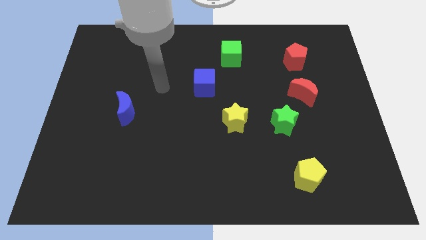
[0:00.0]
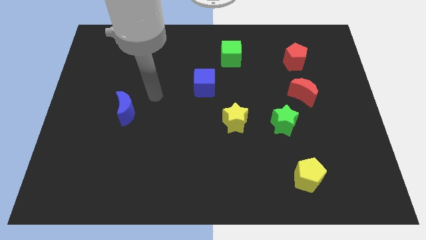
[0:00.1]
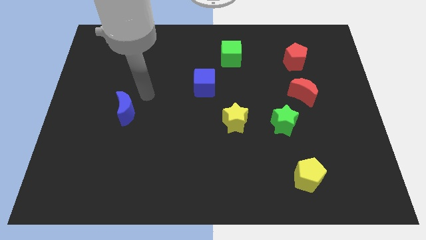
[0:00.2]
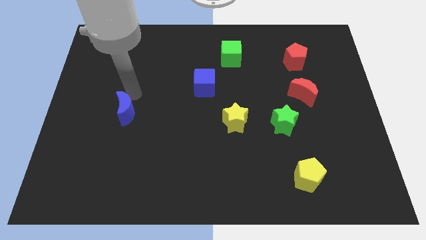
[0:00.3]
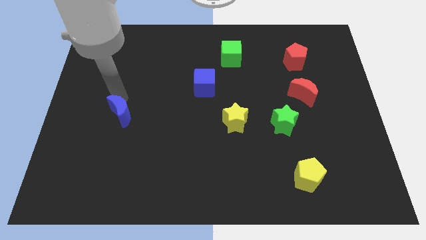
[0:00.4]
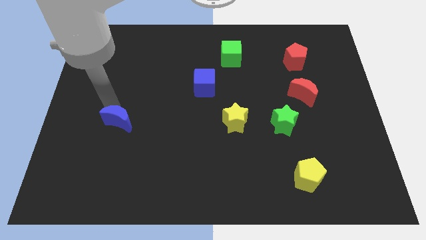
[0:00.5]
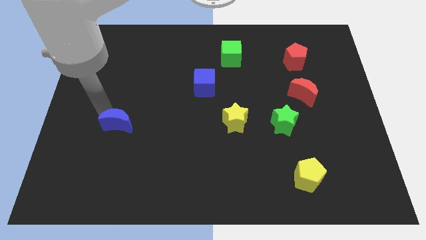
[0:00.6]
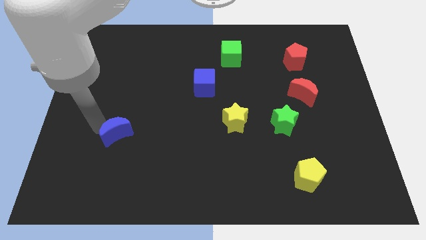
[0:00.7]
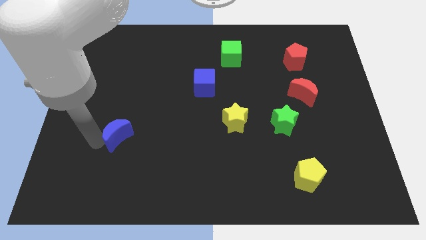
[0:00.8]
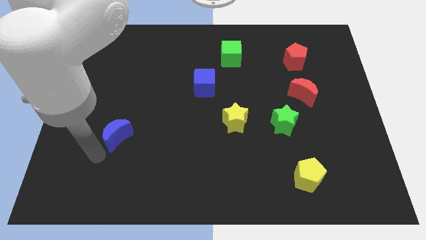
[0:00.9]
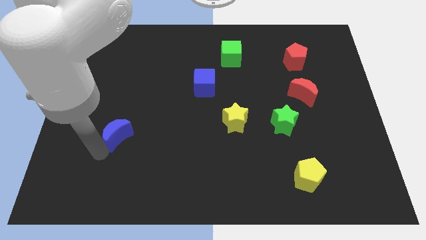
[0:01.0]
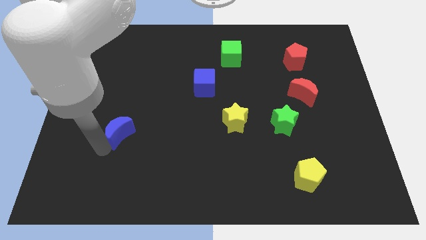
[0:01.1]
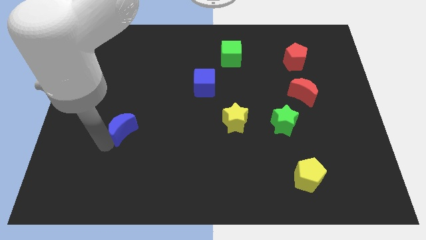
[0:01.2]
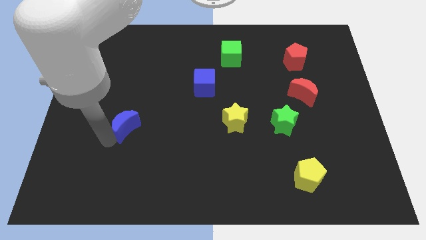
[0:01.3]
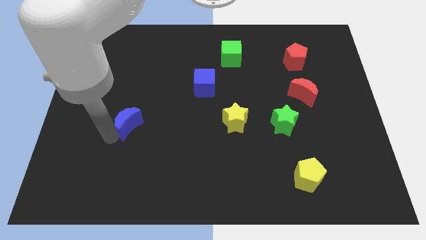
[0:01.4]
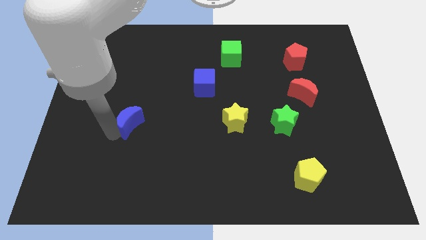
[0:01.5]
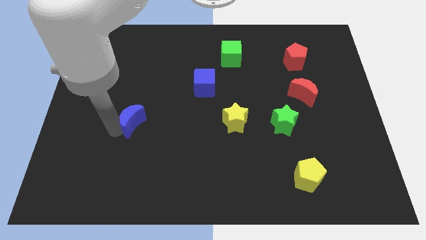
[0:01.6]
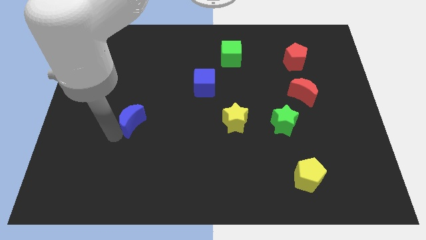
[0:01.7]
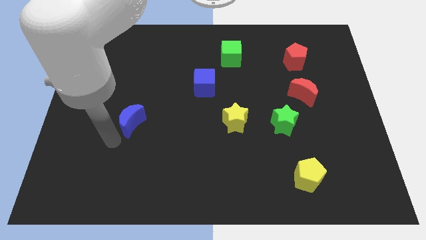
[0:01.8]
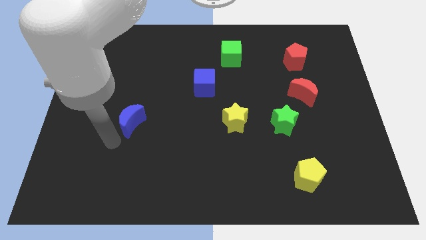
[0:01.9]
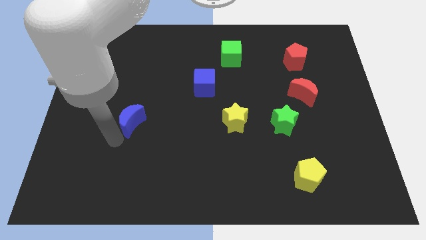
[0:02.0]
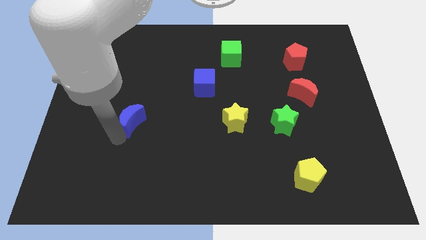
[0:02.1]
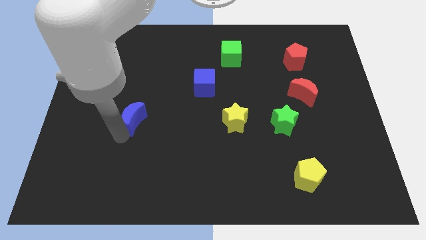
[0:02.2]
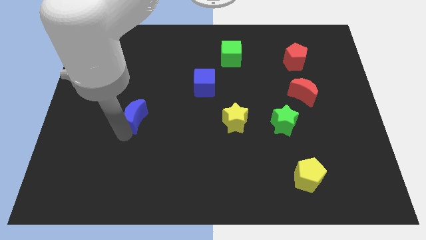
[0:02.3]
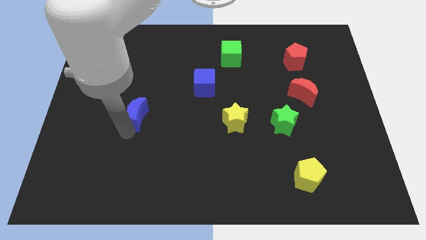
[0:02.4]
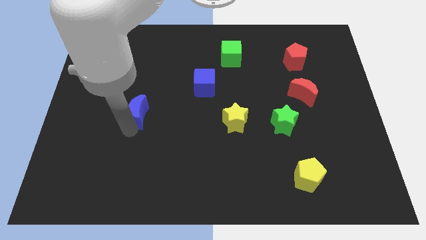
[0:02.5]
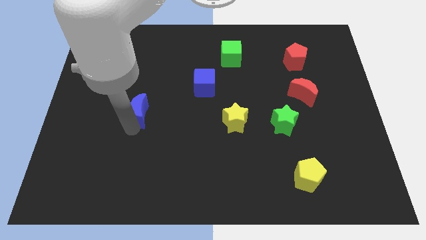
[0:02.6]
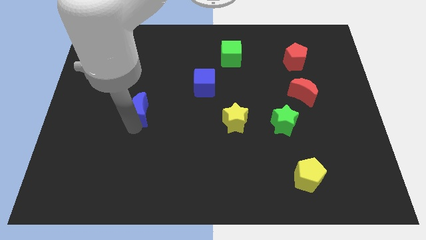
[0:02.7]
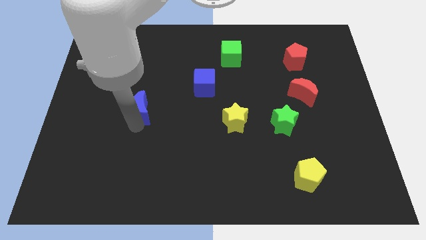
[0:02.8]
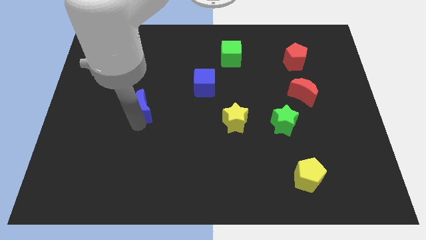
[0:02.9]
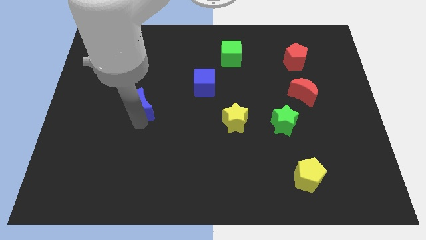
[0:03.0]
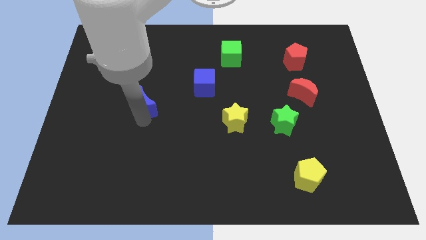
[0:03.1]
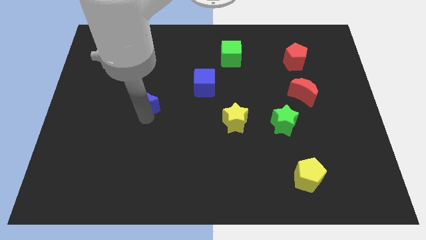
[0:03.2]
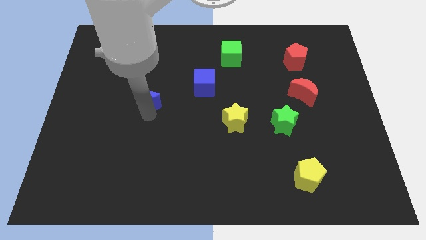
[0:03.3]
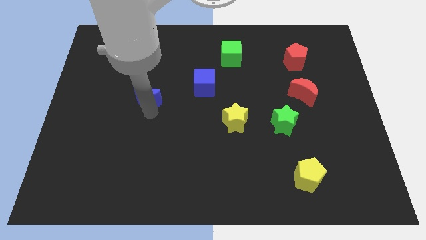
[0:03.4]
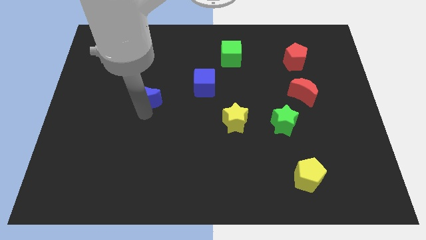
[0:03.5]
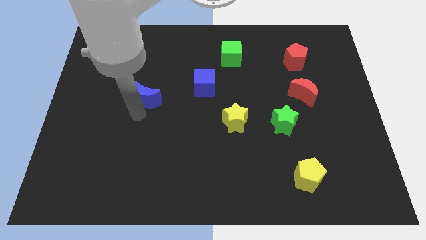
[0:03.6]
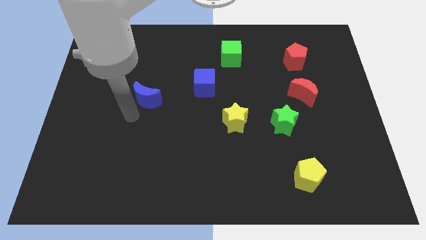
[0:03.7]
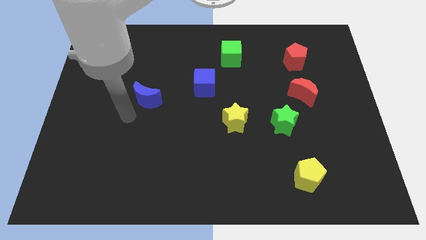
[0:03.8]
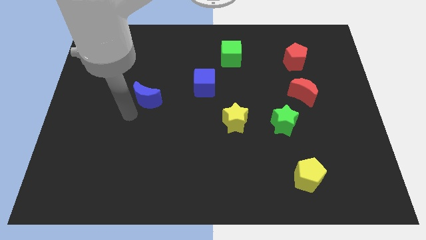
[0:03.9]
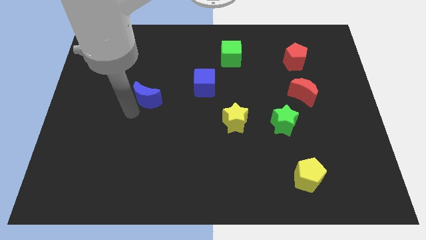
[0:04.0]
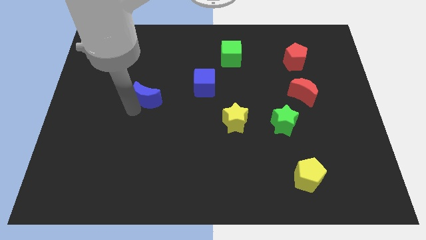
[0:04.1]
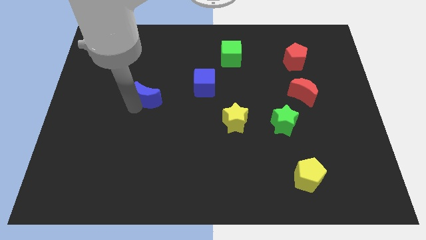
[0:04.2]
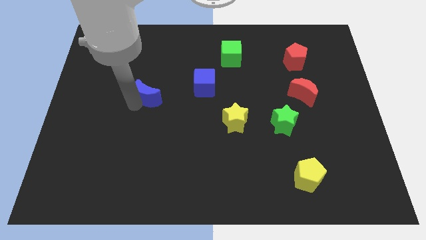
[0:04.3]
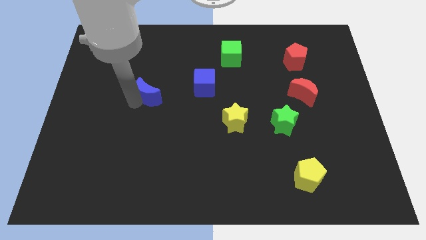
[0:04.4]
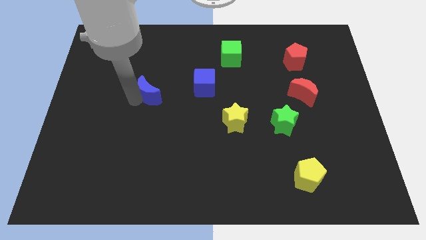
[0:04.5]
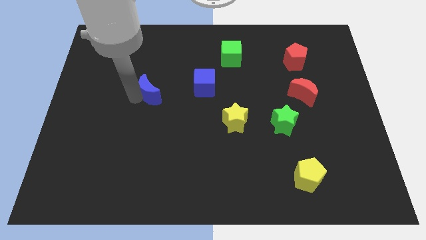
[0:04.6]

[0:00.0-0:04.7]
move the blue moon up and then right slightly

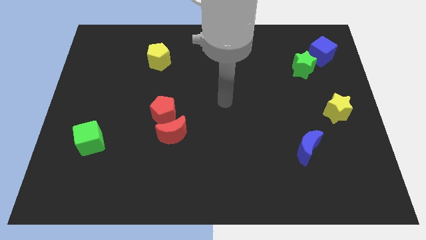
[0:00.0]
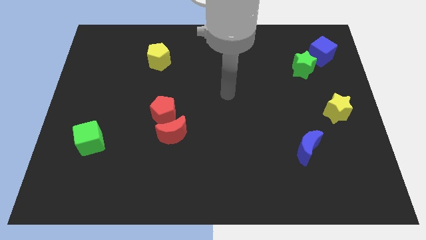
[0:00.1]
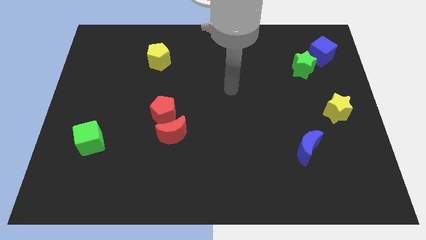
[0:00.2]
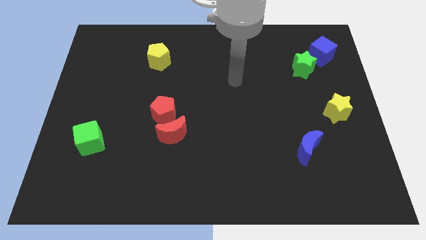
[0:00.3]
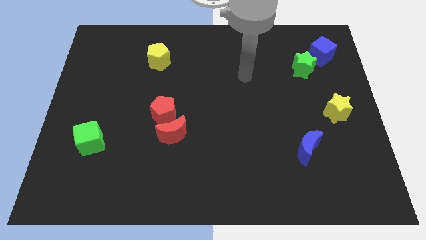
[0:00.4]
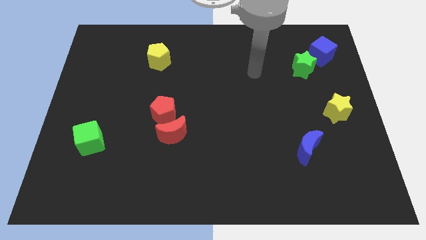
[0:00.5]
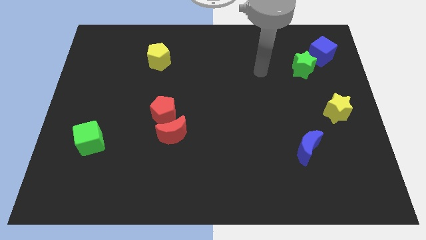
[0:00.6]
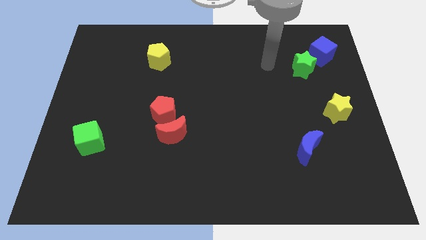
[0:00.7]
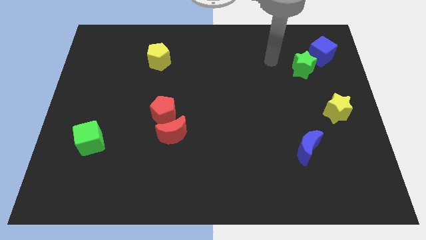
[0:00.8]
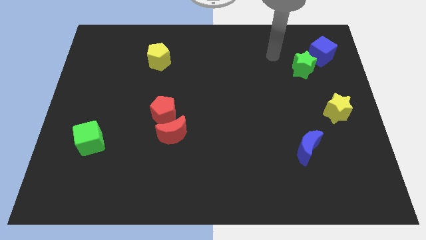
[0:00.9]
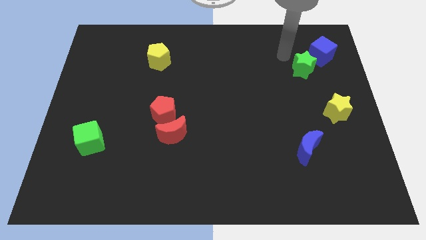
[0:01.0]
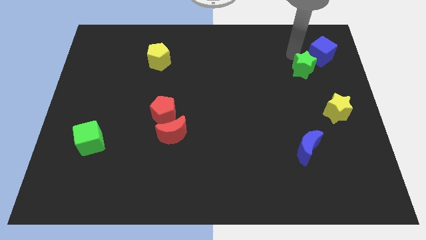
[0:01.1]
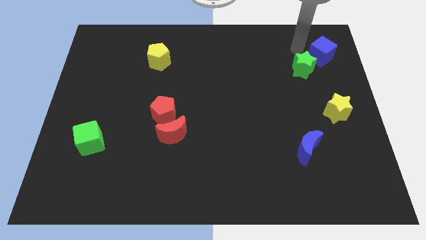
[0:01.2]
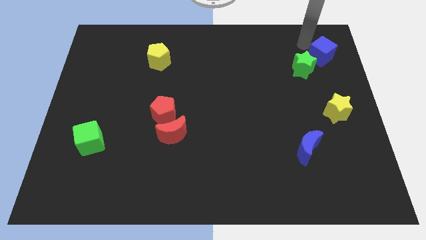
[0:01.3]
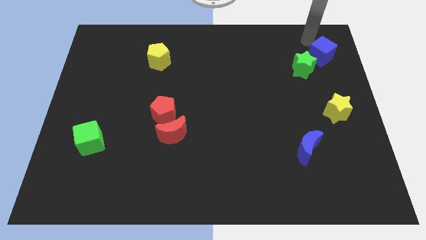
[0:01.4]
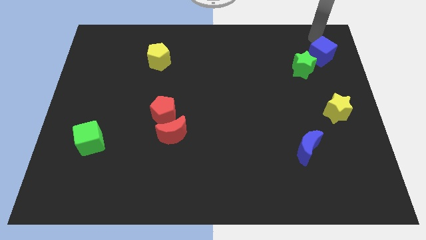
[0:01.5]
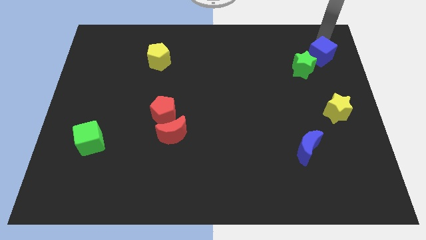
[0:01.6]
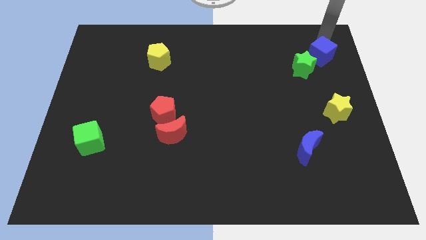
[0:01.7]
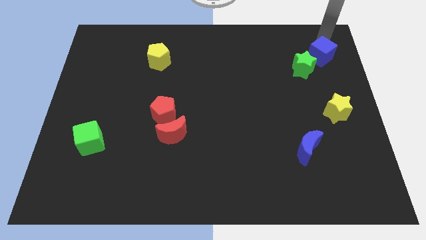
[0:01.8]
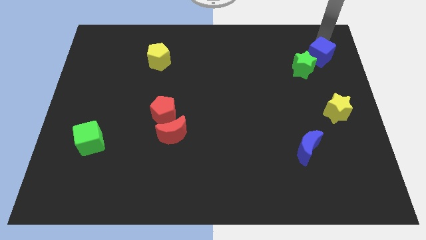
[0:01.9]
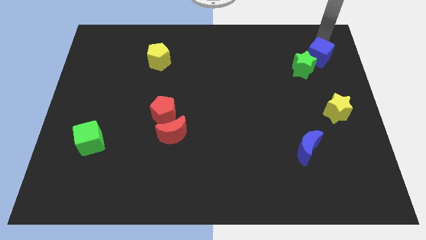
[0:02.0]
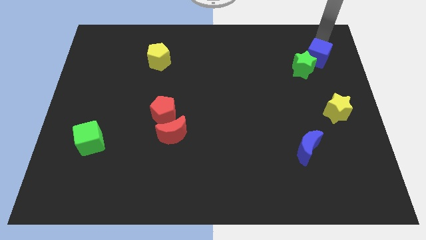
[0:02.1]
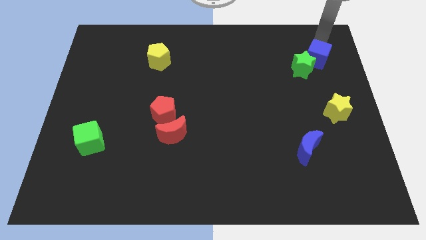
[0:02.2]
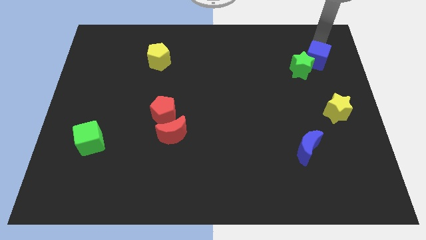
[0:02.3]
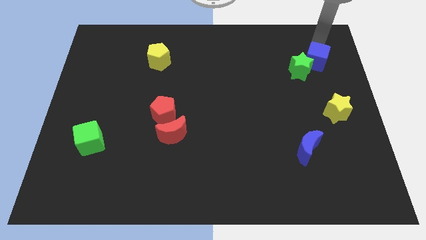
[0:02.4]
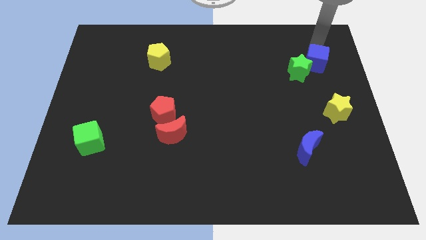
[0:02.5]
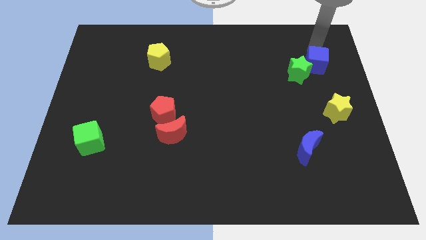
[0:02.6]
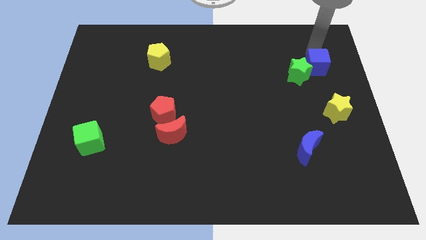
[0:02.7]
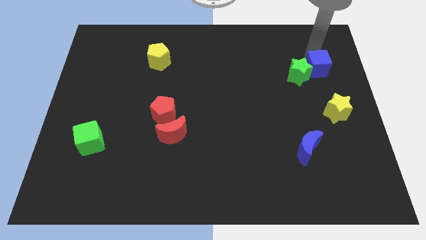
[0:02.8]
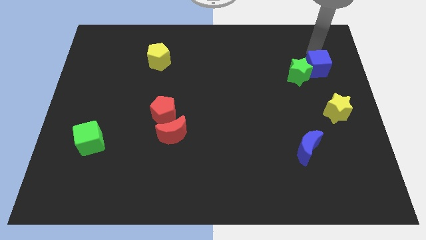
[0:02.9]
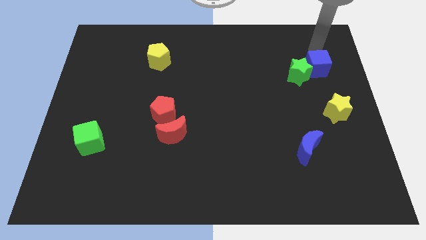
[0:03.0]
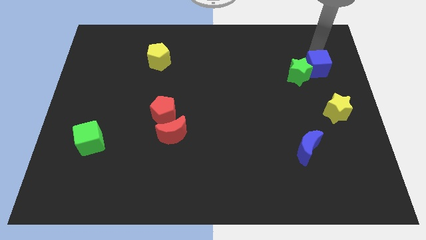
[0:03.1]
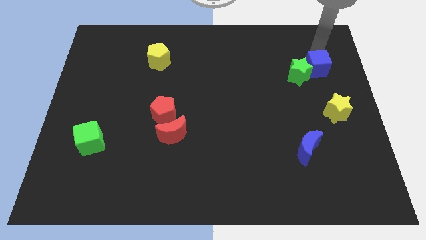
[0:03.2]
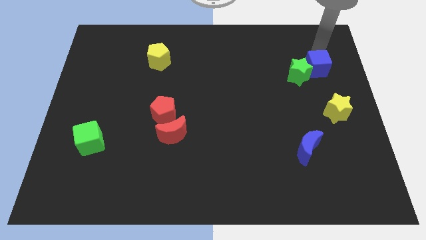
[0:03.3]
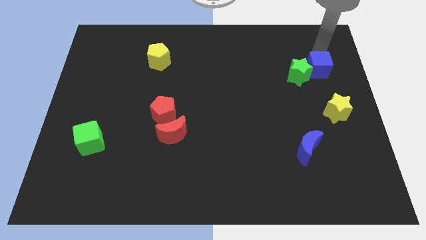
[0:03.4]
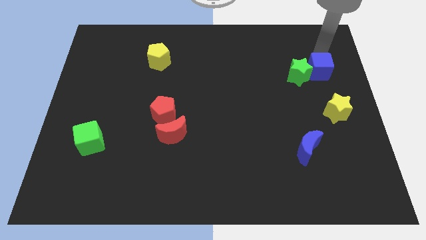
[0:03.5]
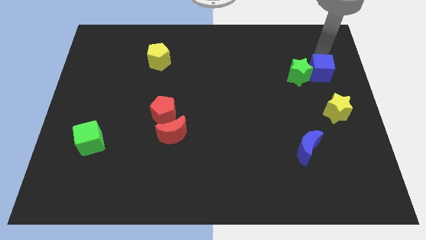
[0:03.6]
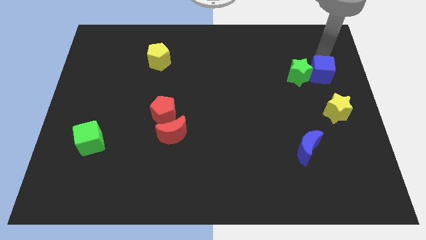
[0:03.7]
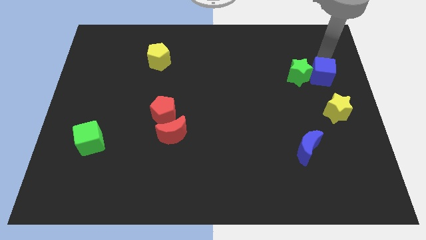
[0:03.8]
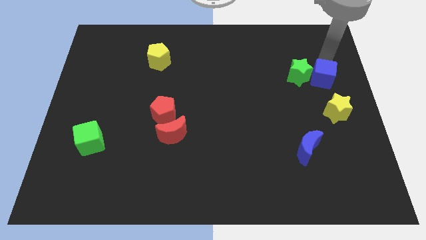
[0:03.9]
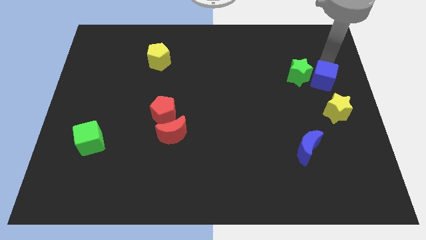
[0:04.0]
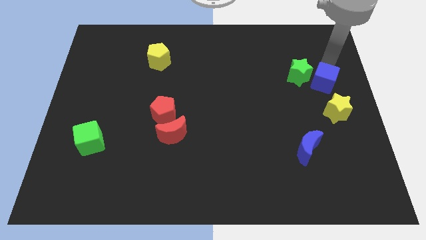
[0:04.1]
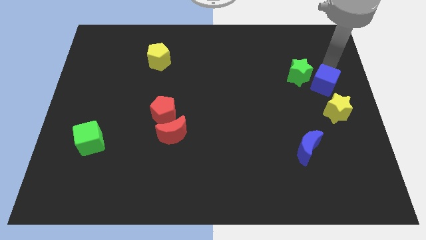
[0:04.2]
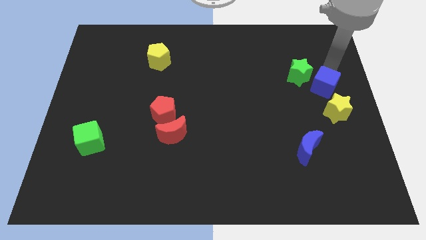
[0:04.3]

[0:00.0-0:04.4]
slightly push the blue cube downwards and to the left
